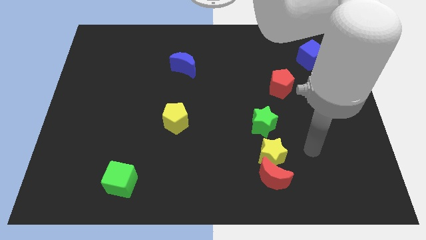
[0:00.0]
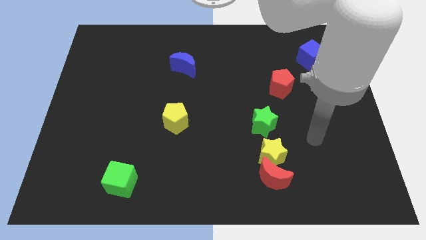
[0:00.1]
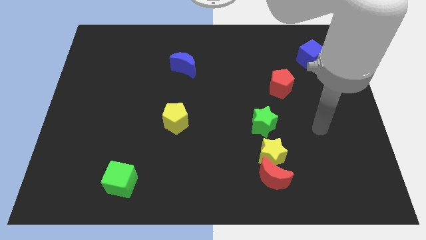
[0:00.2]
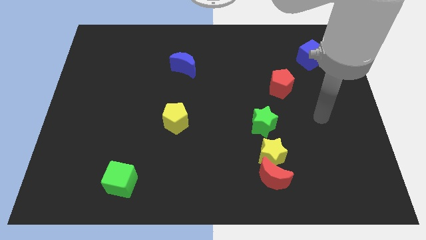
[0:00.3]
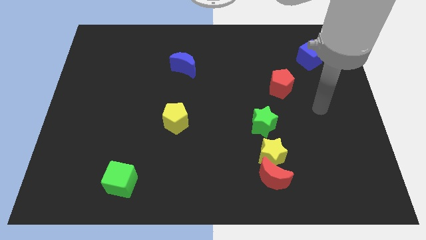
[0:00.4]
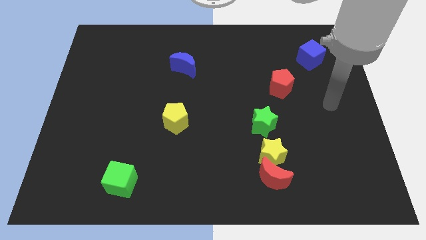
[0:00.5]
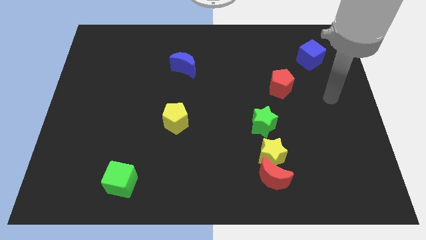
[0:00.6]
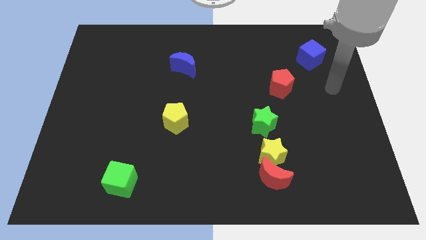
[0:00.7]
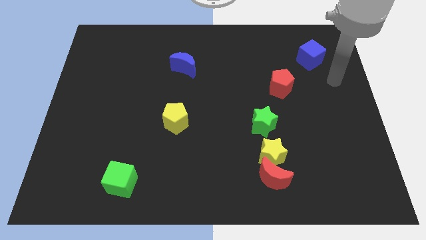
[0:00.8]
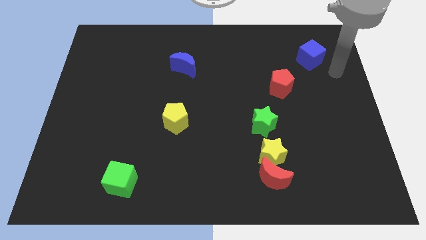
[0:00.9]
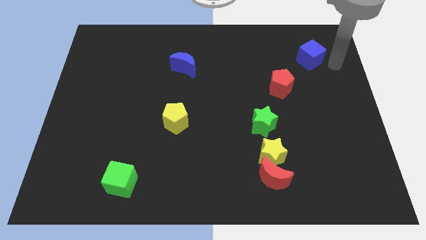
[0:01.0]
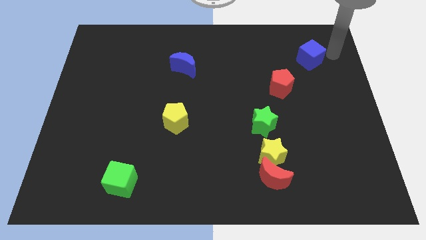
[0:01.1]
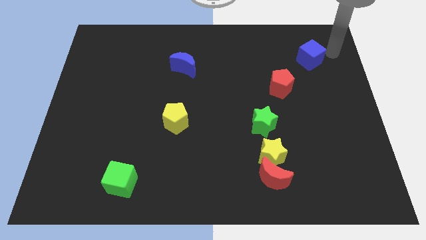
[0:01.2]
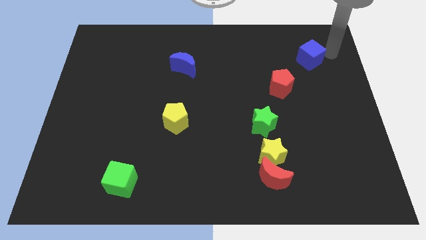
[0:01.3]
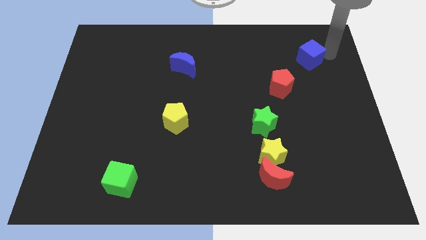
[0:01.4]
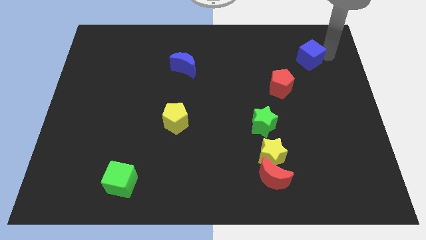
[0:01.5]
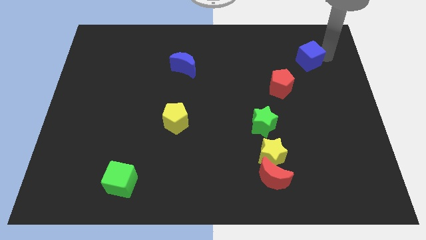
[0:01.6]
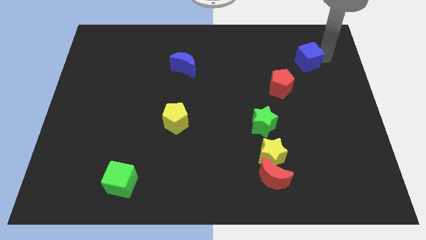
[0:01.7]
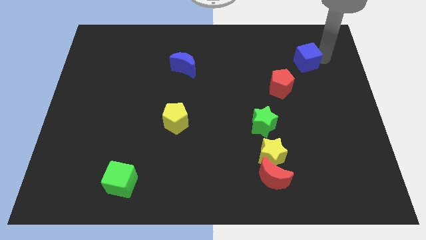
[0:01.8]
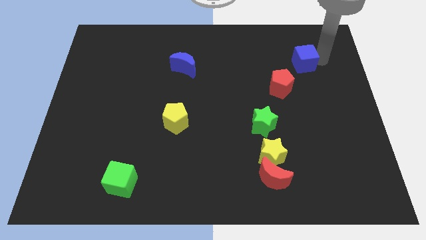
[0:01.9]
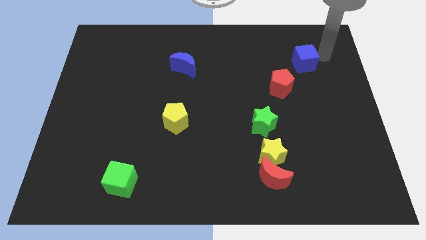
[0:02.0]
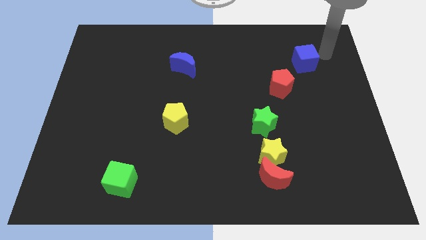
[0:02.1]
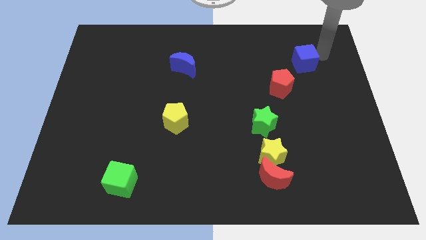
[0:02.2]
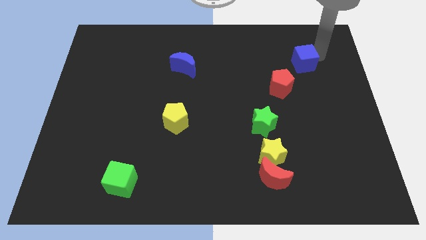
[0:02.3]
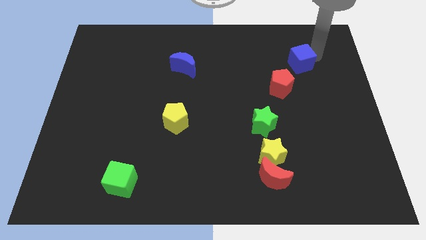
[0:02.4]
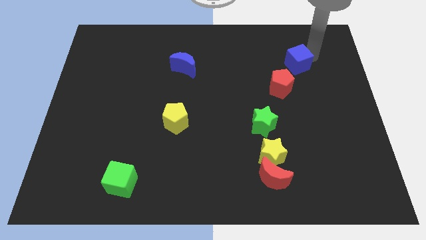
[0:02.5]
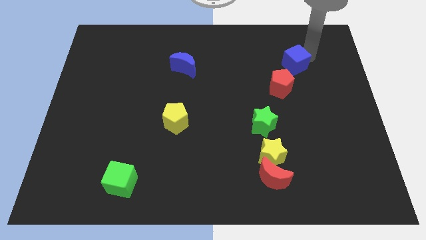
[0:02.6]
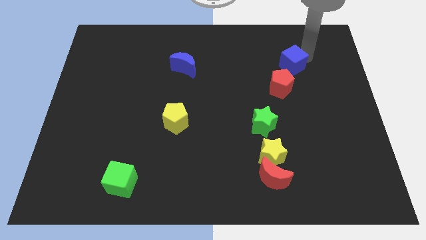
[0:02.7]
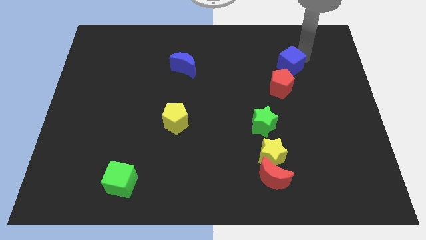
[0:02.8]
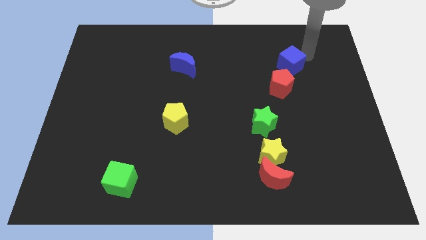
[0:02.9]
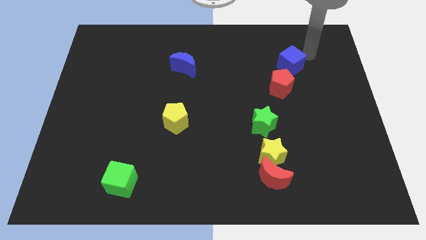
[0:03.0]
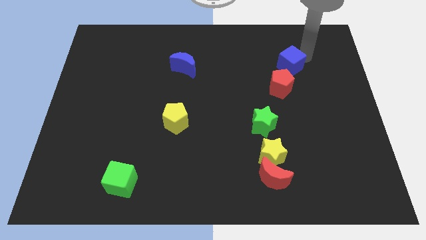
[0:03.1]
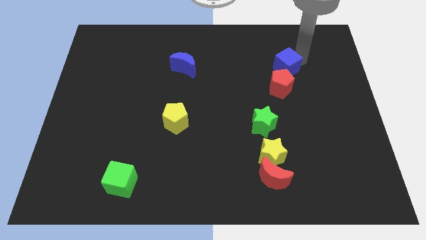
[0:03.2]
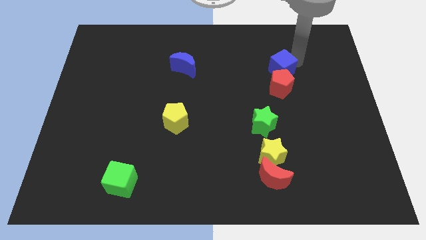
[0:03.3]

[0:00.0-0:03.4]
slide the blue cube downwards and left diagonally a bit

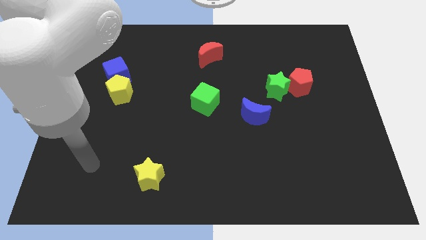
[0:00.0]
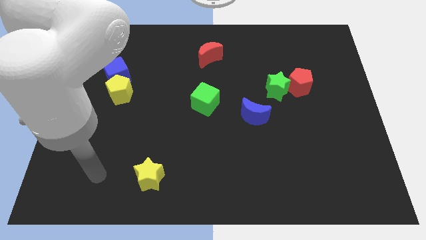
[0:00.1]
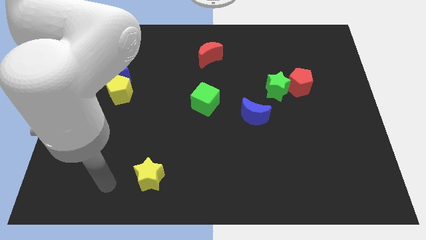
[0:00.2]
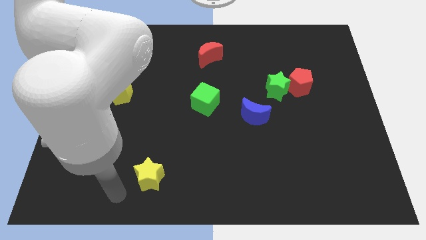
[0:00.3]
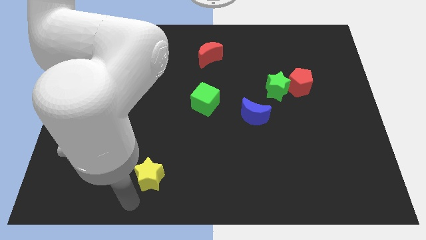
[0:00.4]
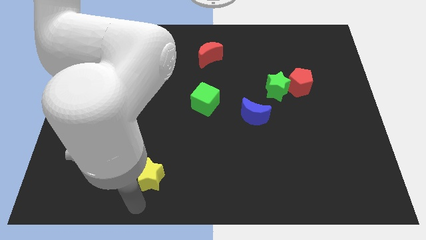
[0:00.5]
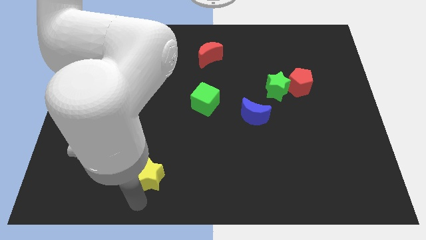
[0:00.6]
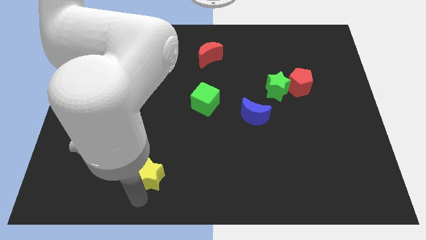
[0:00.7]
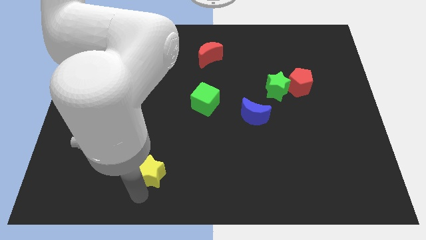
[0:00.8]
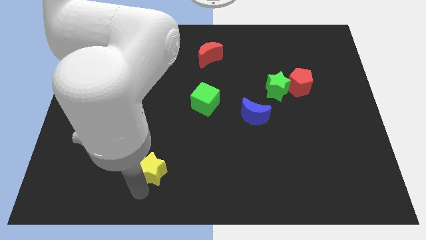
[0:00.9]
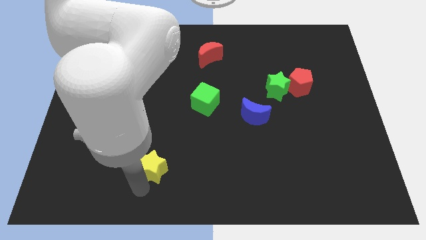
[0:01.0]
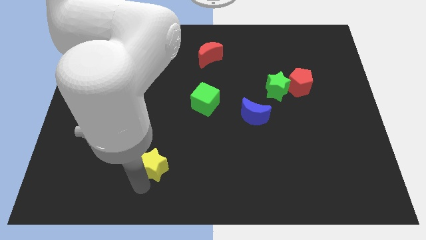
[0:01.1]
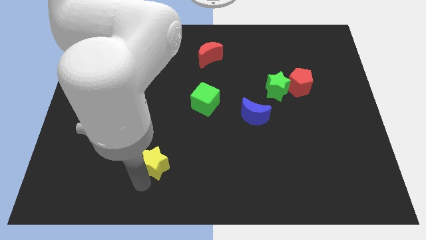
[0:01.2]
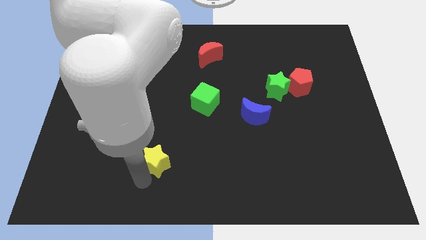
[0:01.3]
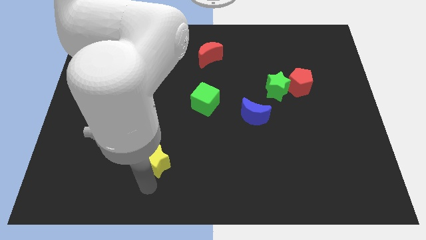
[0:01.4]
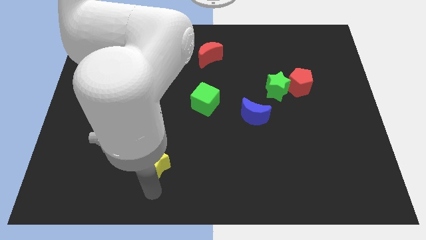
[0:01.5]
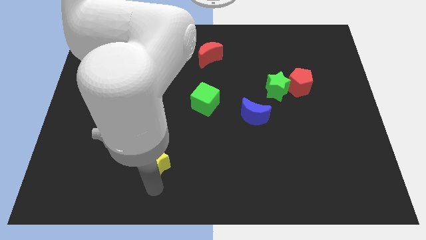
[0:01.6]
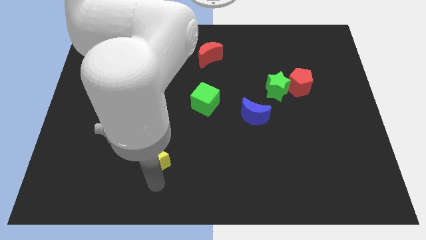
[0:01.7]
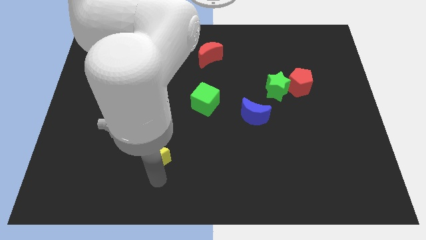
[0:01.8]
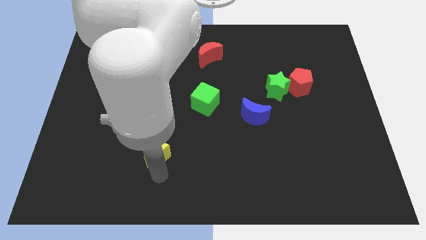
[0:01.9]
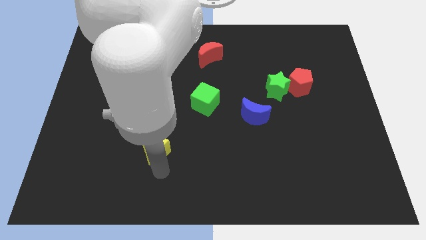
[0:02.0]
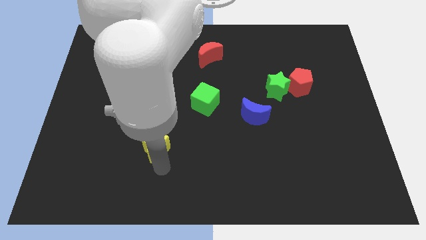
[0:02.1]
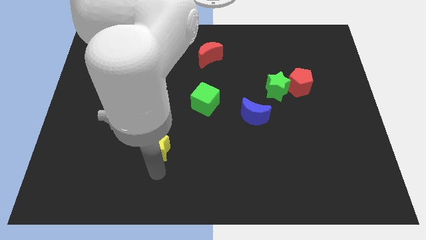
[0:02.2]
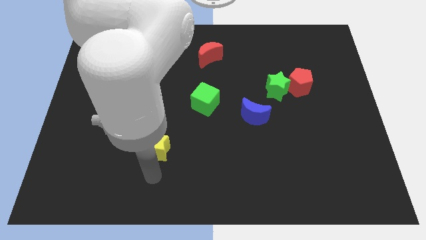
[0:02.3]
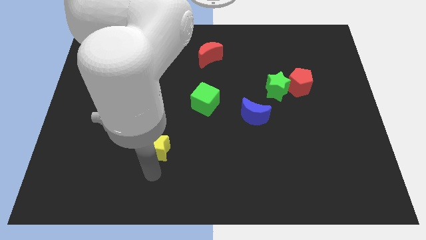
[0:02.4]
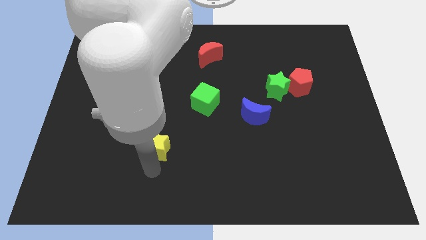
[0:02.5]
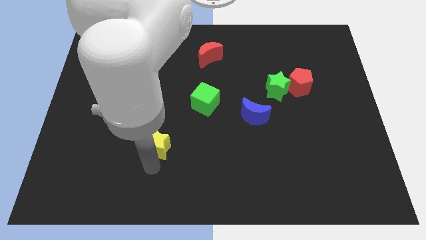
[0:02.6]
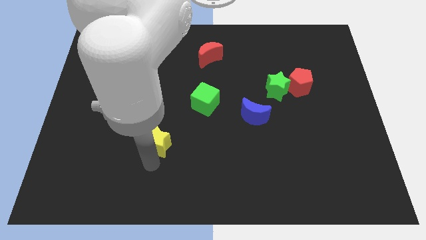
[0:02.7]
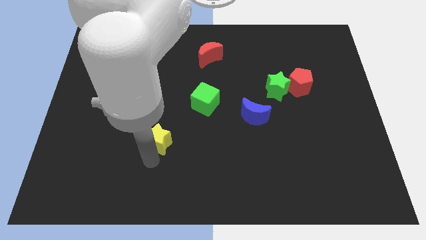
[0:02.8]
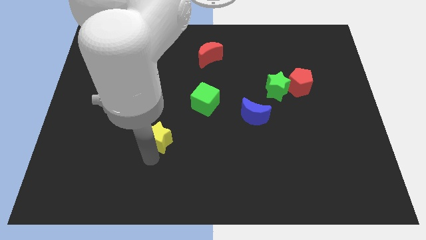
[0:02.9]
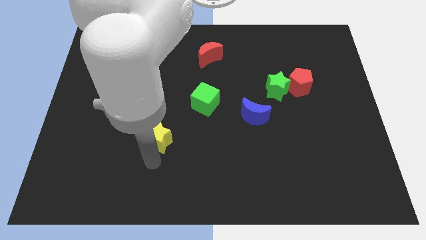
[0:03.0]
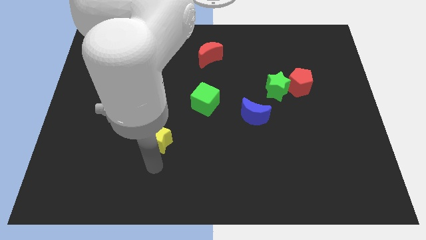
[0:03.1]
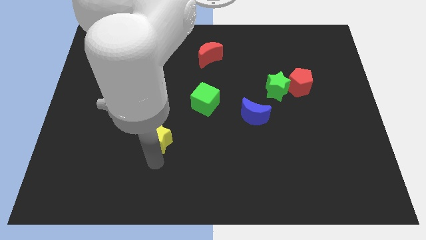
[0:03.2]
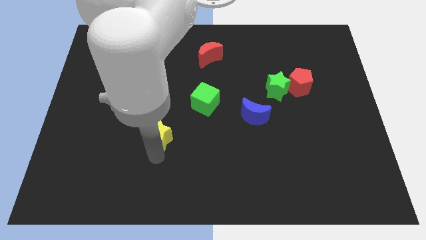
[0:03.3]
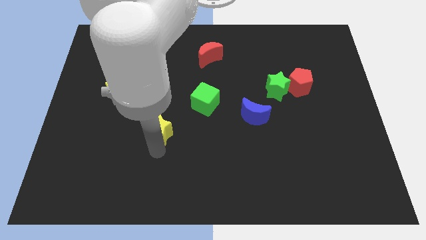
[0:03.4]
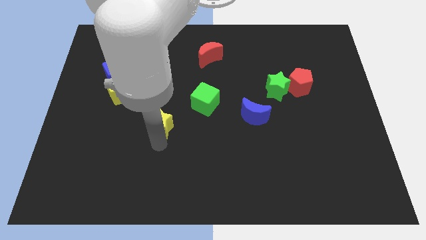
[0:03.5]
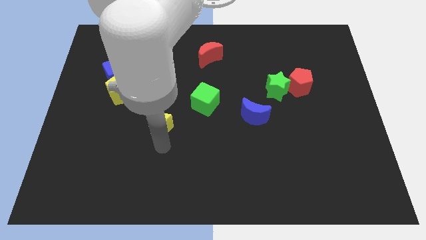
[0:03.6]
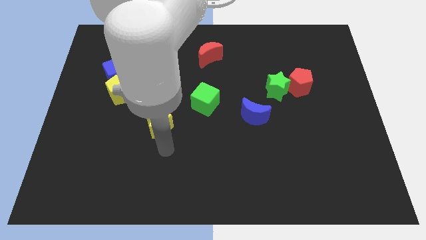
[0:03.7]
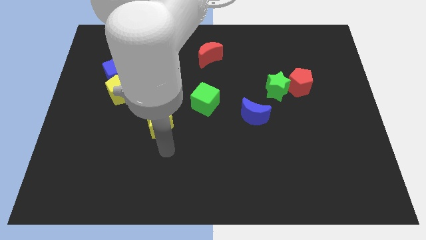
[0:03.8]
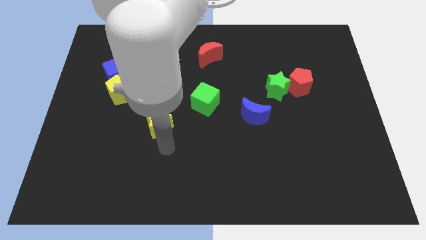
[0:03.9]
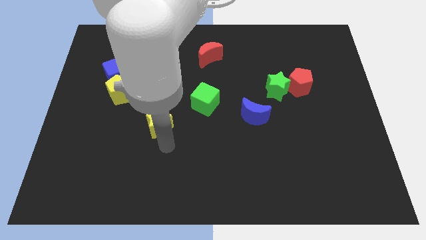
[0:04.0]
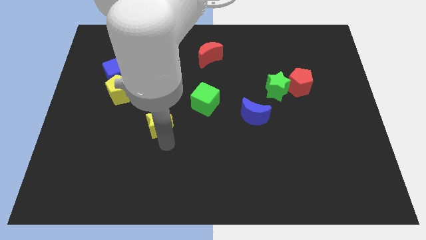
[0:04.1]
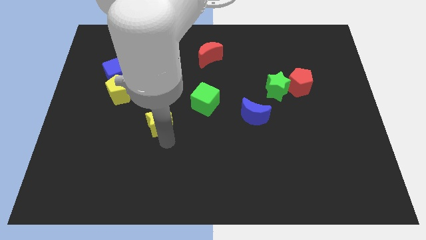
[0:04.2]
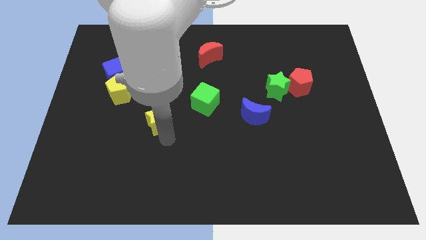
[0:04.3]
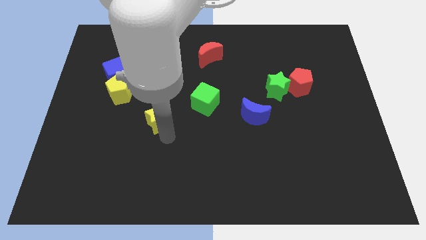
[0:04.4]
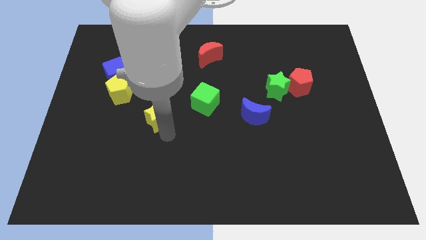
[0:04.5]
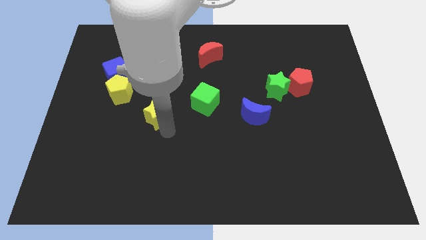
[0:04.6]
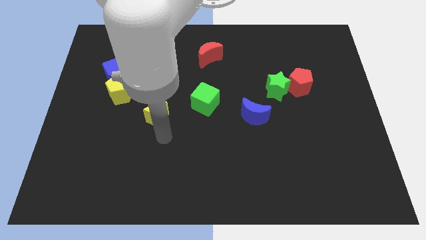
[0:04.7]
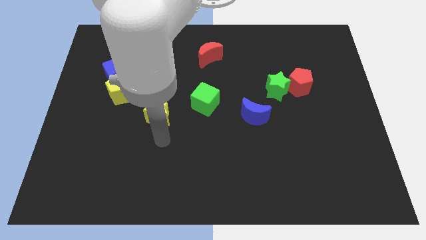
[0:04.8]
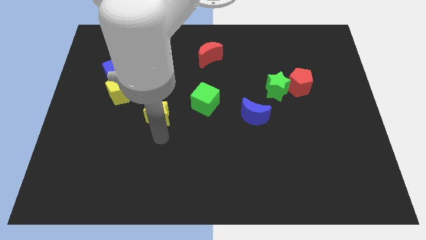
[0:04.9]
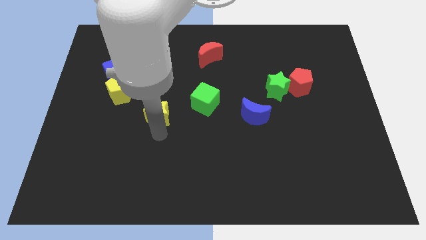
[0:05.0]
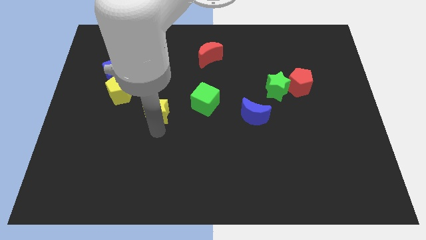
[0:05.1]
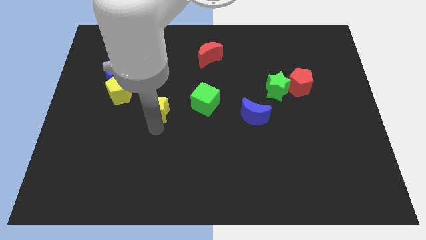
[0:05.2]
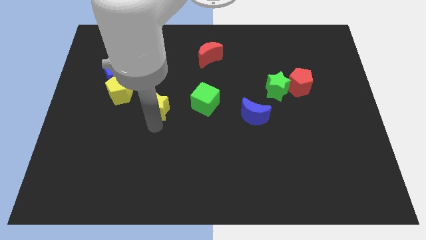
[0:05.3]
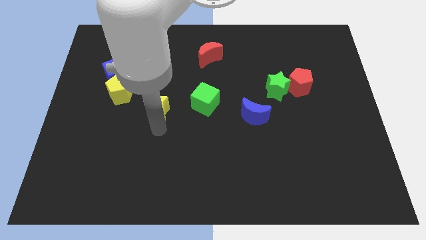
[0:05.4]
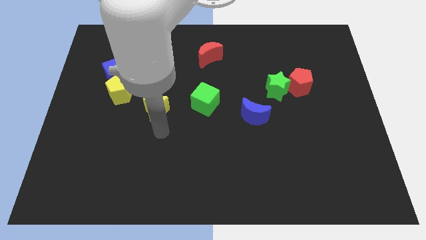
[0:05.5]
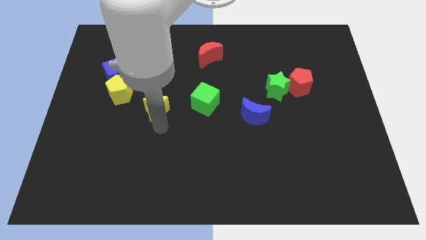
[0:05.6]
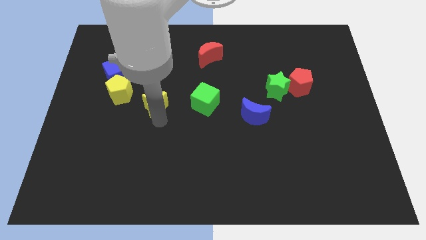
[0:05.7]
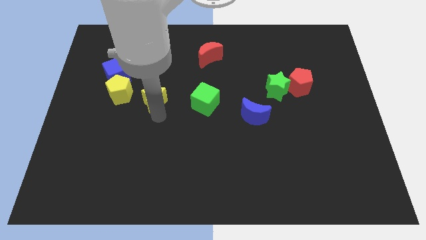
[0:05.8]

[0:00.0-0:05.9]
slide the yellow star upwards
